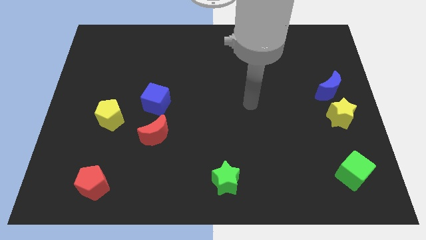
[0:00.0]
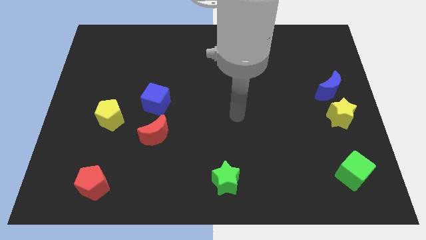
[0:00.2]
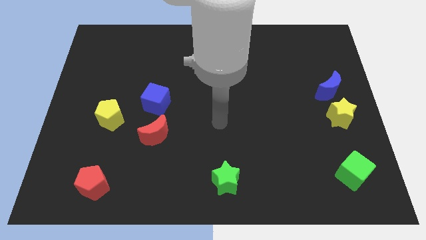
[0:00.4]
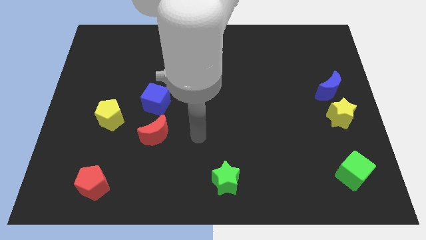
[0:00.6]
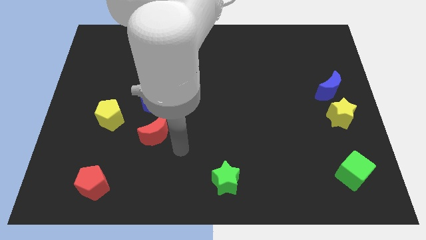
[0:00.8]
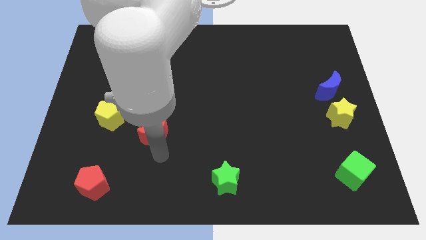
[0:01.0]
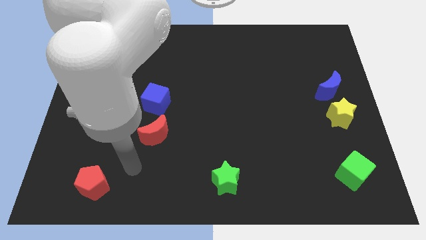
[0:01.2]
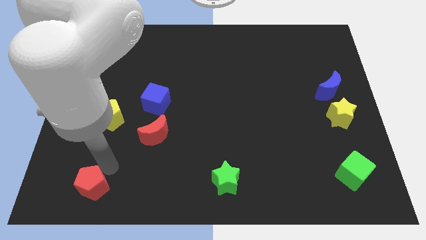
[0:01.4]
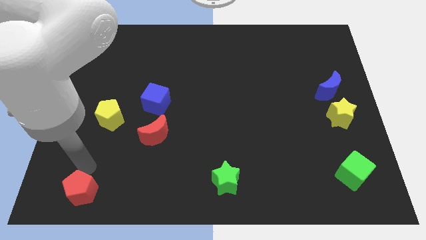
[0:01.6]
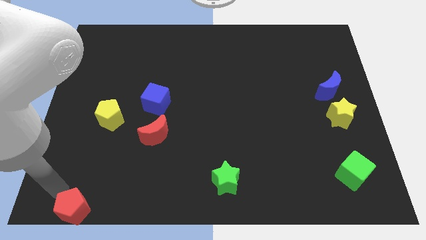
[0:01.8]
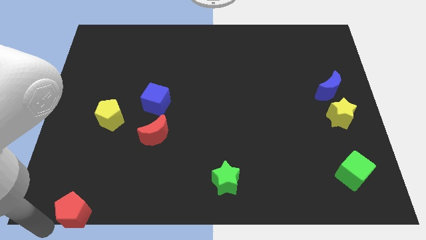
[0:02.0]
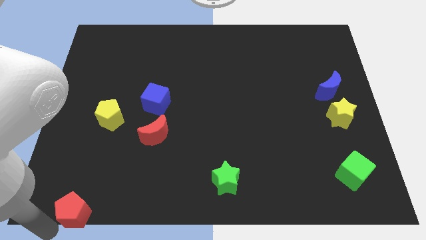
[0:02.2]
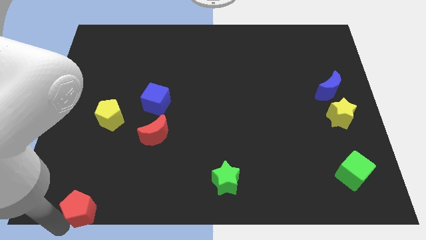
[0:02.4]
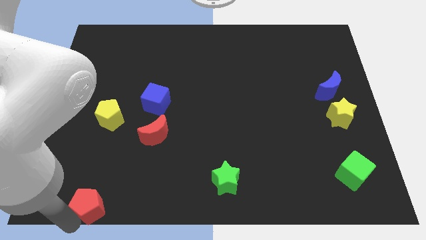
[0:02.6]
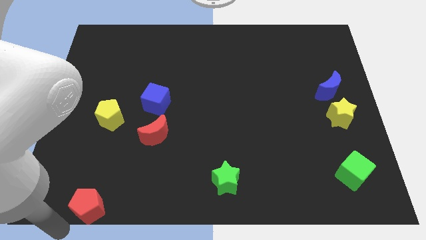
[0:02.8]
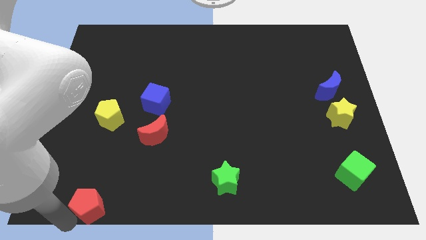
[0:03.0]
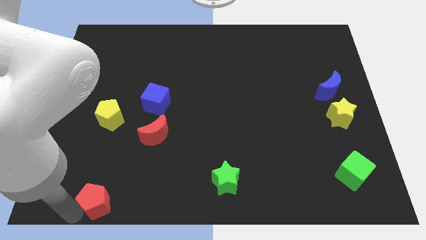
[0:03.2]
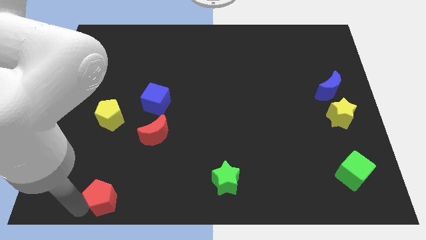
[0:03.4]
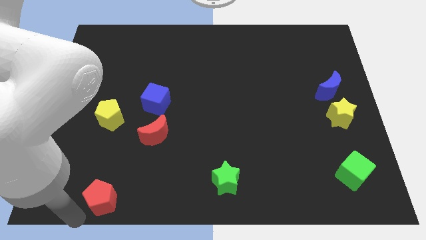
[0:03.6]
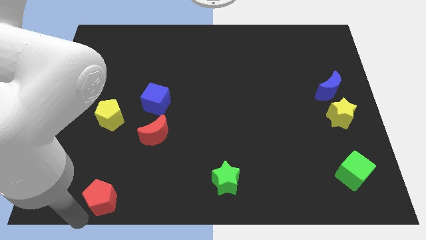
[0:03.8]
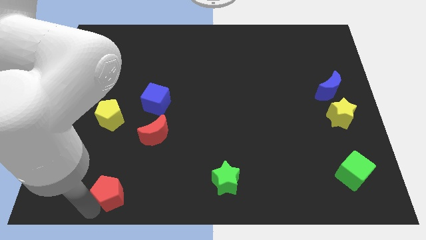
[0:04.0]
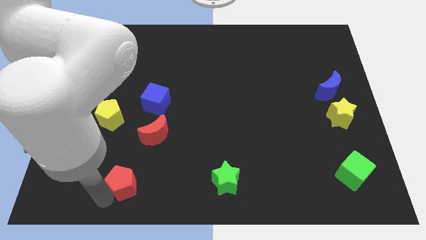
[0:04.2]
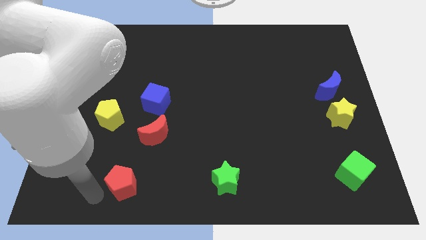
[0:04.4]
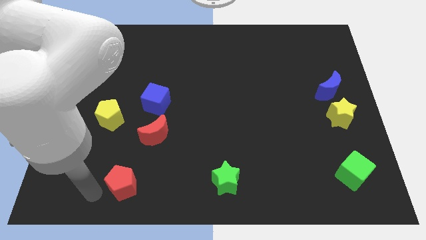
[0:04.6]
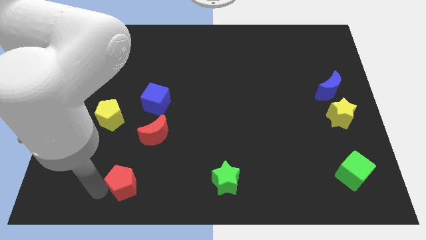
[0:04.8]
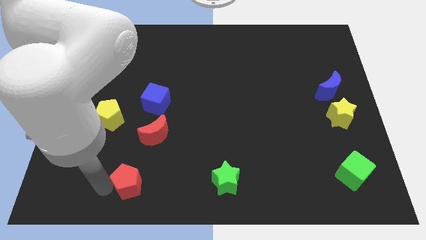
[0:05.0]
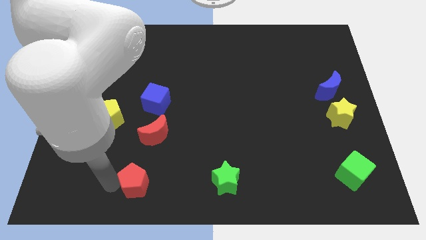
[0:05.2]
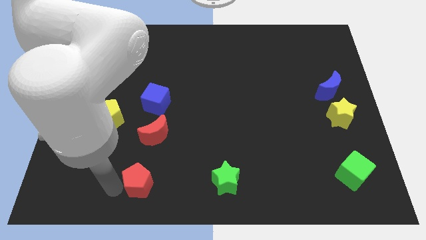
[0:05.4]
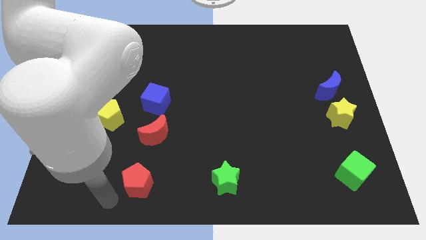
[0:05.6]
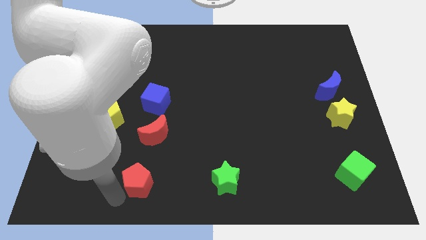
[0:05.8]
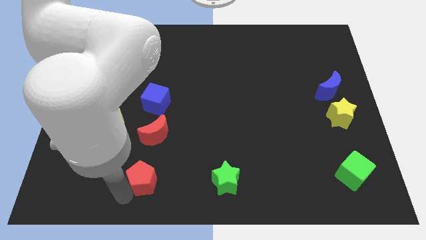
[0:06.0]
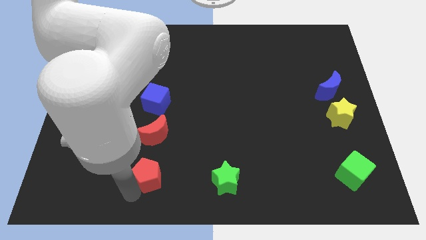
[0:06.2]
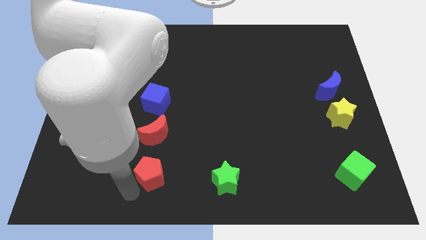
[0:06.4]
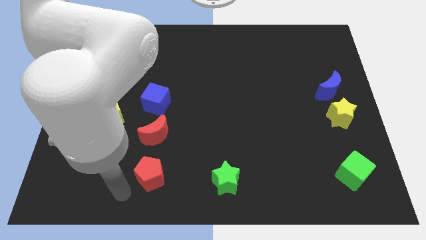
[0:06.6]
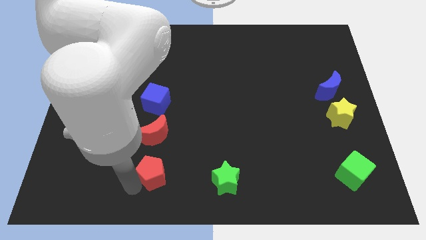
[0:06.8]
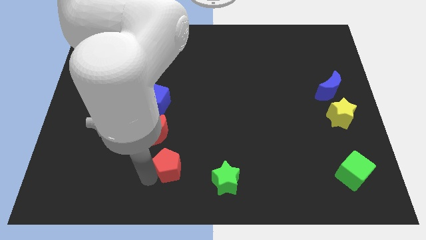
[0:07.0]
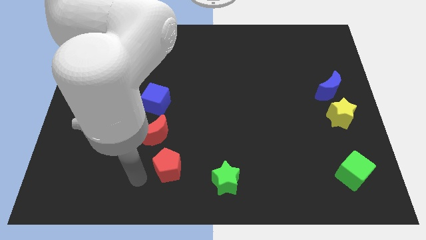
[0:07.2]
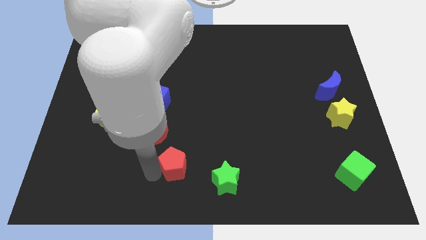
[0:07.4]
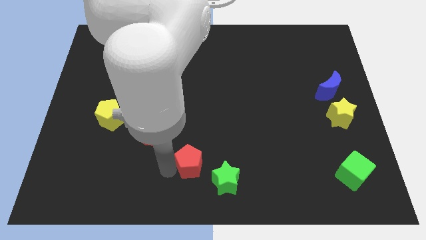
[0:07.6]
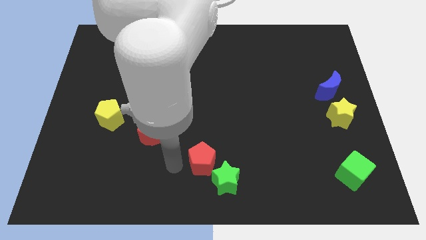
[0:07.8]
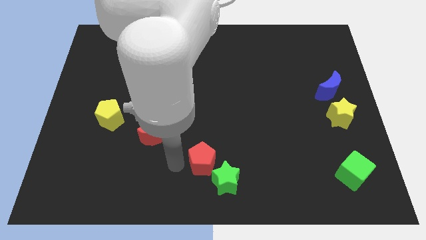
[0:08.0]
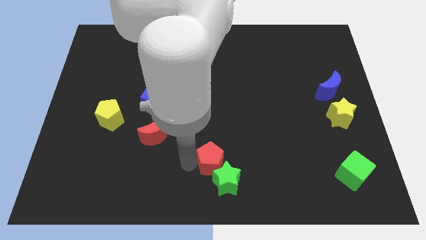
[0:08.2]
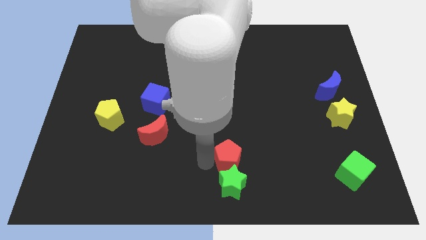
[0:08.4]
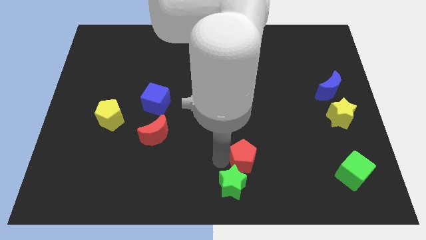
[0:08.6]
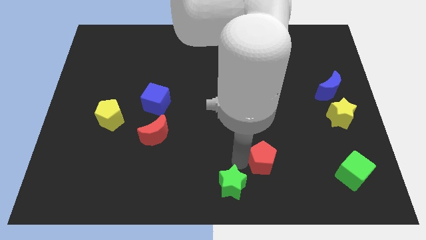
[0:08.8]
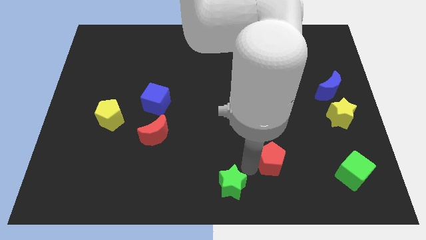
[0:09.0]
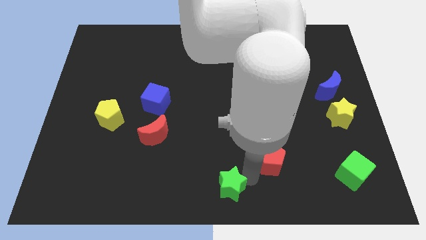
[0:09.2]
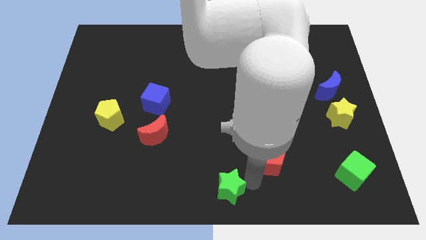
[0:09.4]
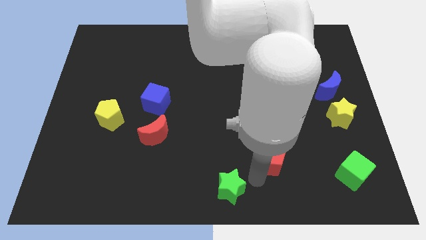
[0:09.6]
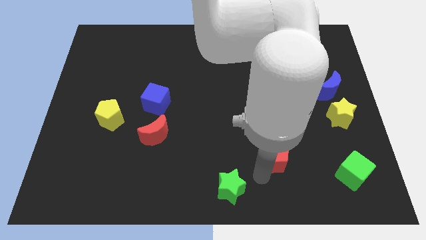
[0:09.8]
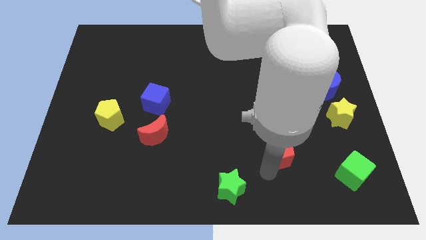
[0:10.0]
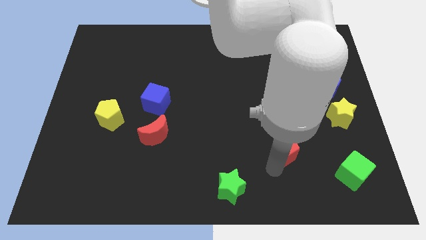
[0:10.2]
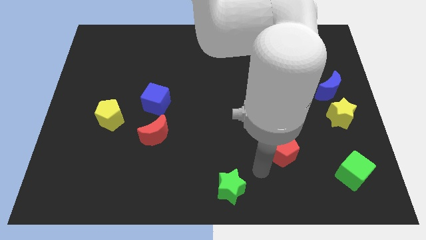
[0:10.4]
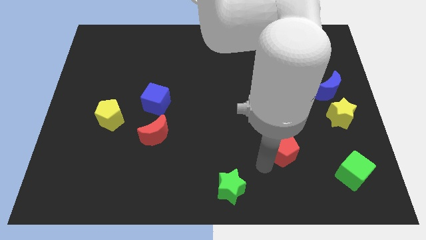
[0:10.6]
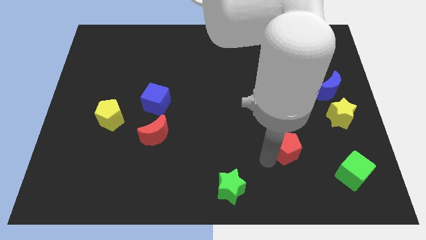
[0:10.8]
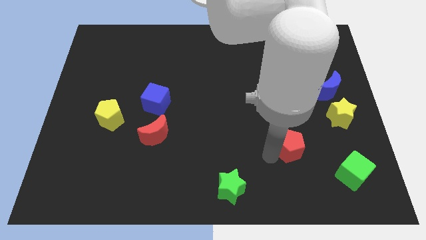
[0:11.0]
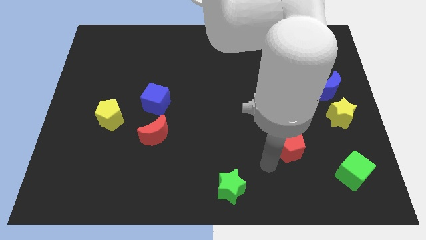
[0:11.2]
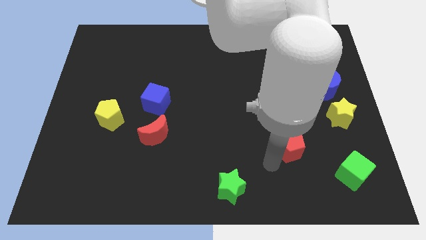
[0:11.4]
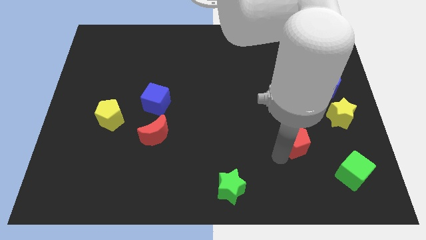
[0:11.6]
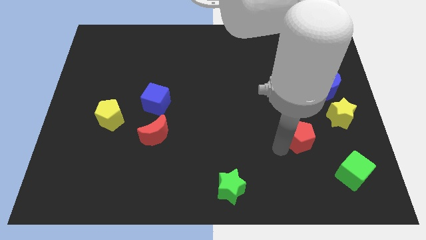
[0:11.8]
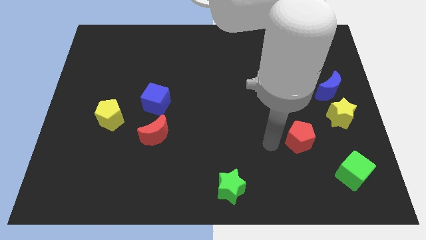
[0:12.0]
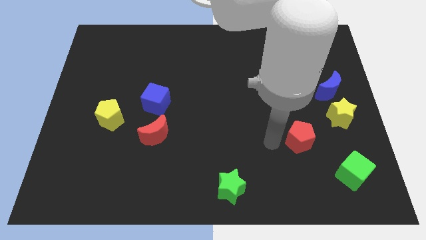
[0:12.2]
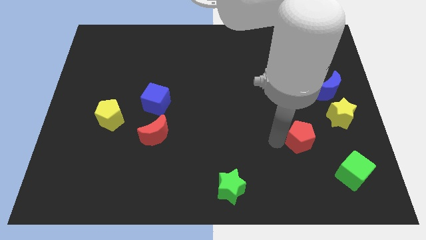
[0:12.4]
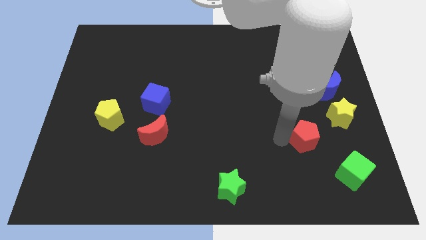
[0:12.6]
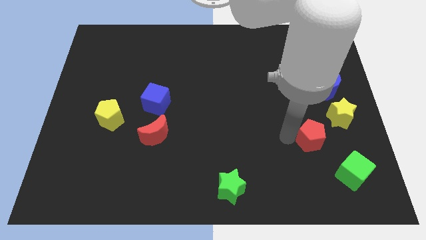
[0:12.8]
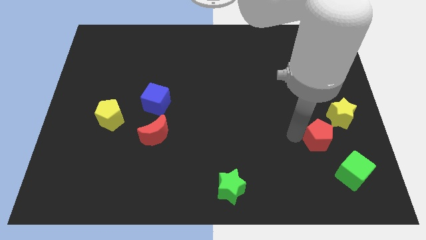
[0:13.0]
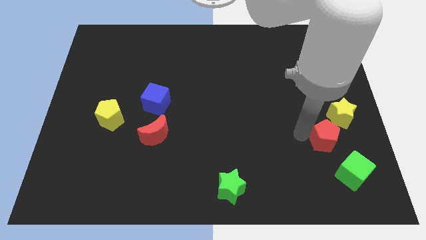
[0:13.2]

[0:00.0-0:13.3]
slide the red pentagon to the top of the green cube
